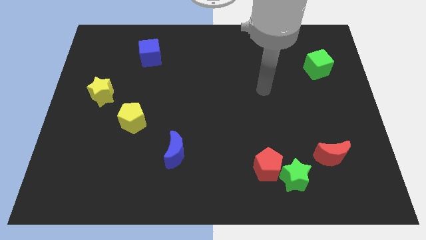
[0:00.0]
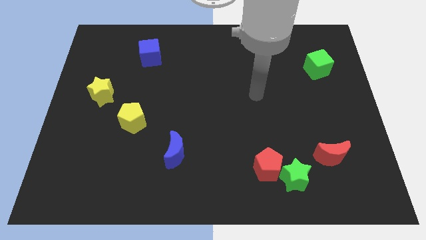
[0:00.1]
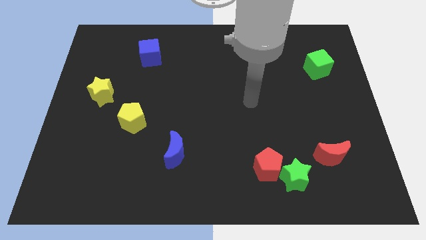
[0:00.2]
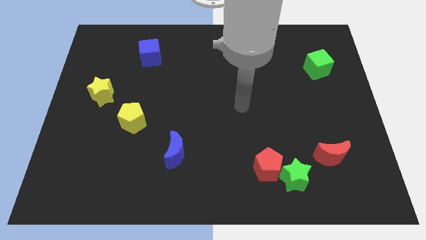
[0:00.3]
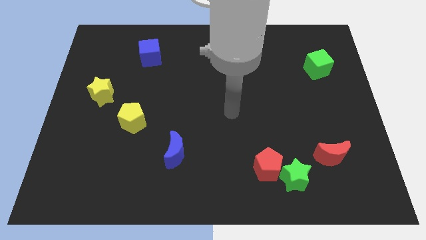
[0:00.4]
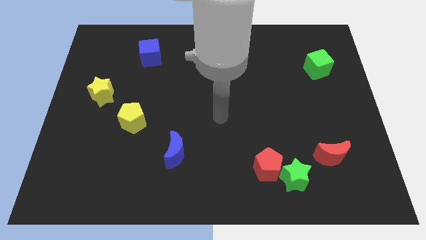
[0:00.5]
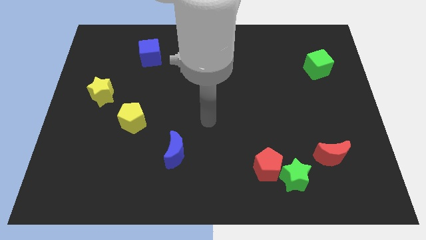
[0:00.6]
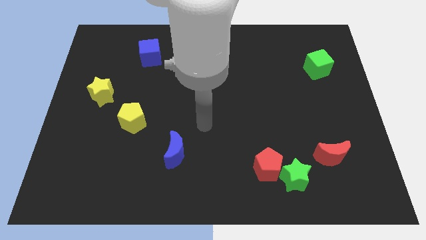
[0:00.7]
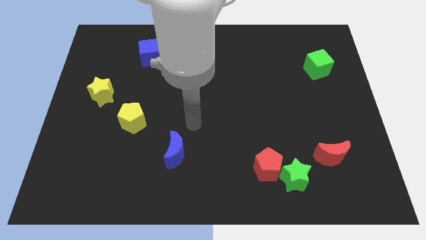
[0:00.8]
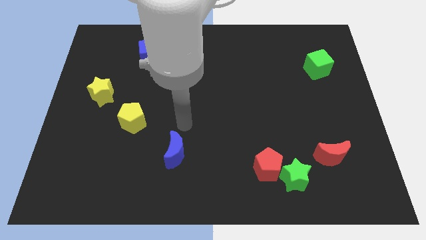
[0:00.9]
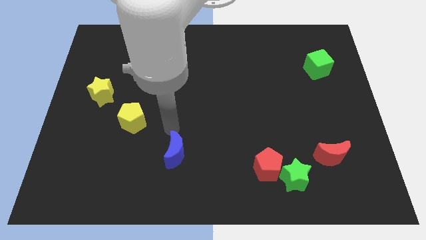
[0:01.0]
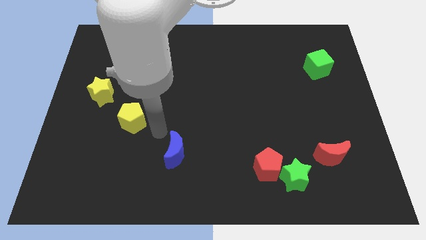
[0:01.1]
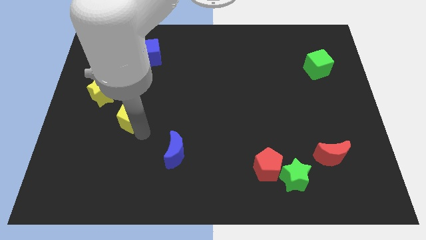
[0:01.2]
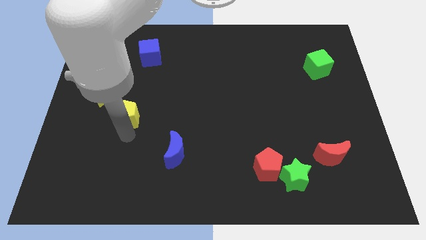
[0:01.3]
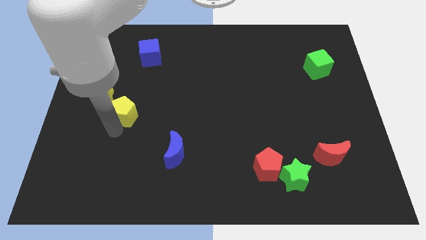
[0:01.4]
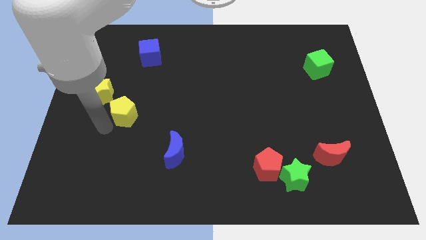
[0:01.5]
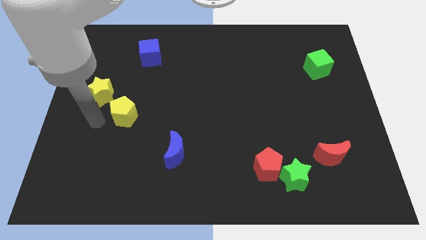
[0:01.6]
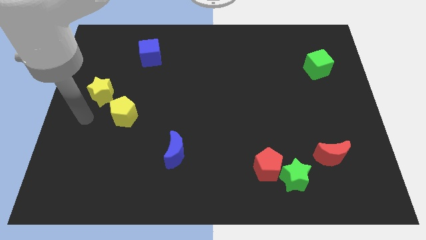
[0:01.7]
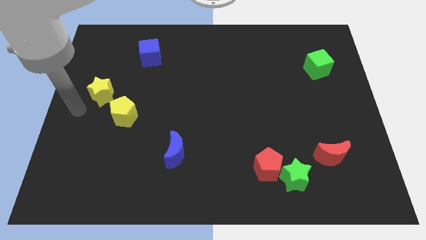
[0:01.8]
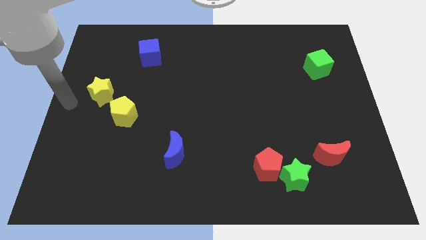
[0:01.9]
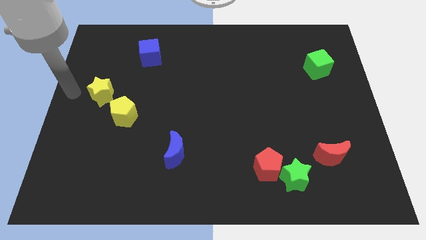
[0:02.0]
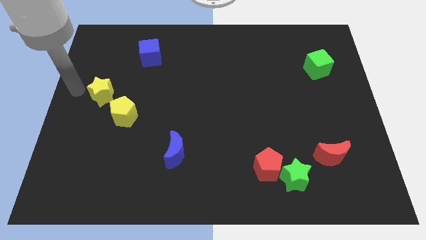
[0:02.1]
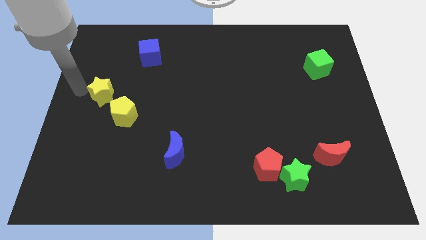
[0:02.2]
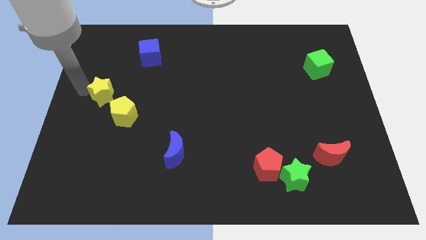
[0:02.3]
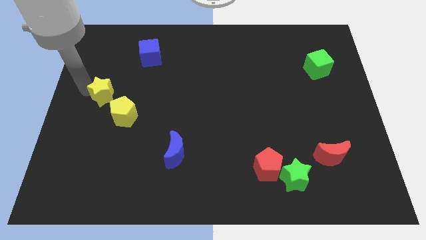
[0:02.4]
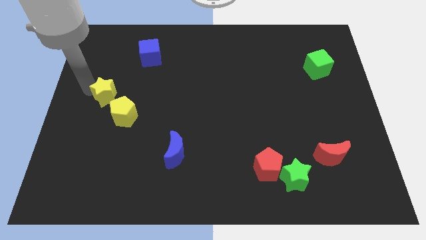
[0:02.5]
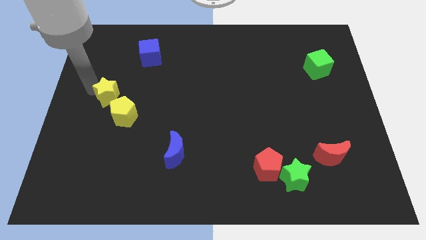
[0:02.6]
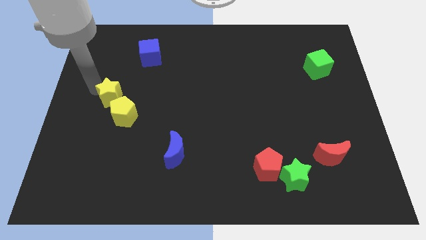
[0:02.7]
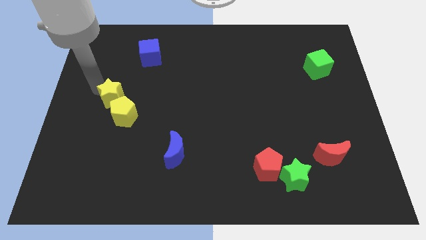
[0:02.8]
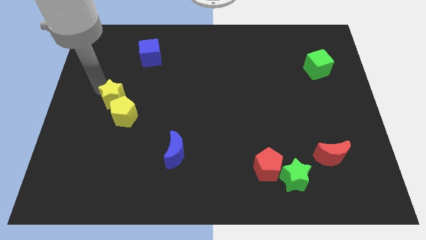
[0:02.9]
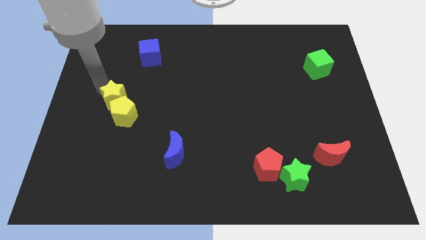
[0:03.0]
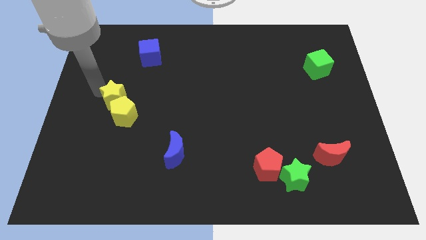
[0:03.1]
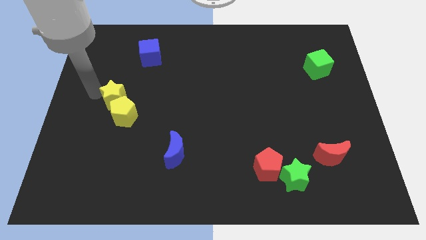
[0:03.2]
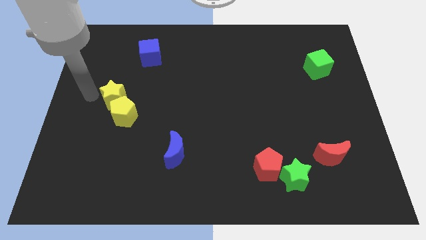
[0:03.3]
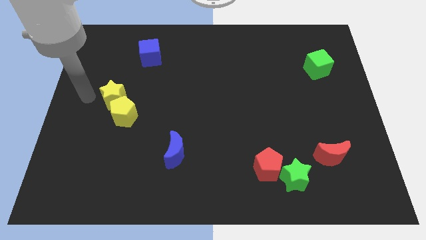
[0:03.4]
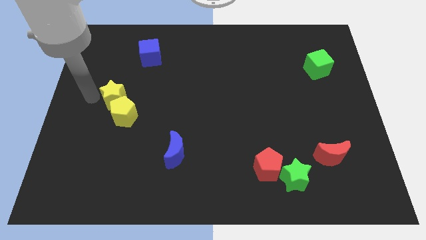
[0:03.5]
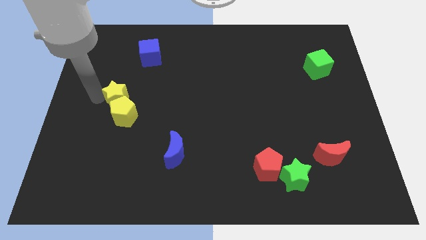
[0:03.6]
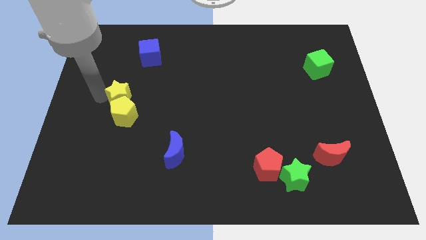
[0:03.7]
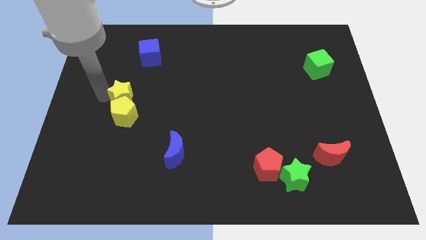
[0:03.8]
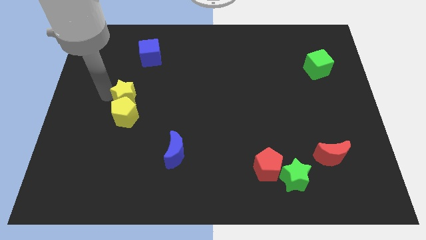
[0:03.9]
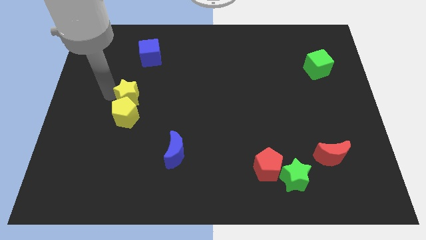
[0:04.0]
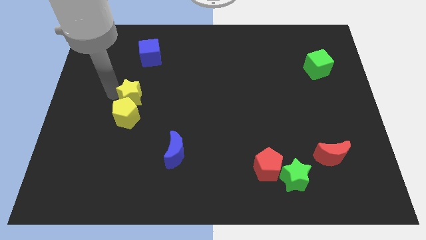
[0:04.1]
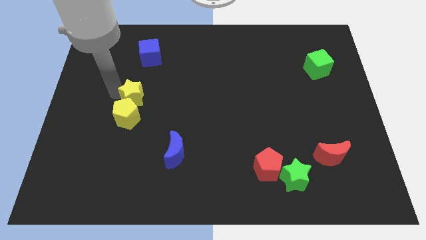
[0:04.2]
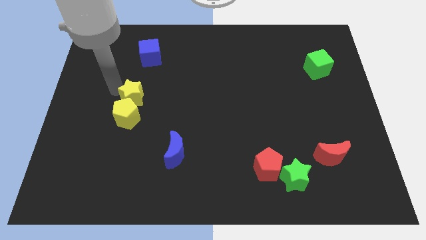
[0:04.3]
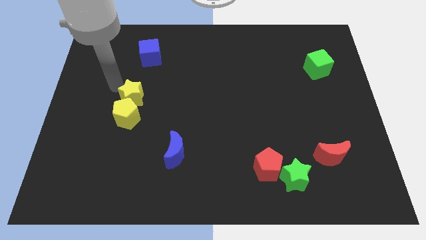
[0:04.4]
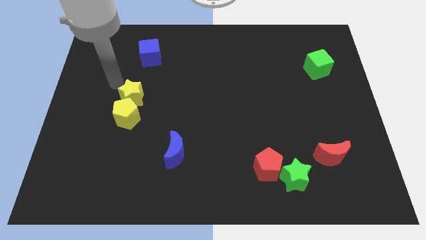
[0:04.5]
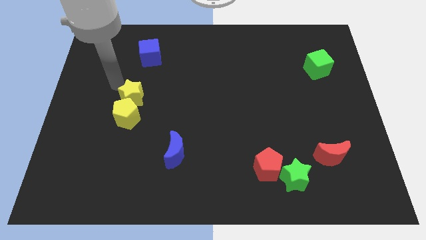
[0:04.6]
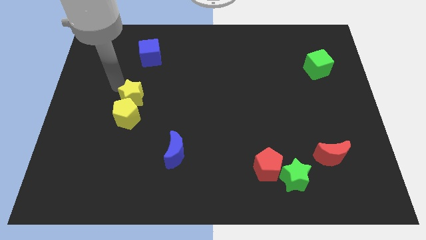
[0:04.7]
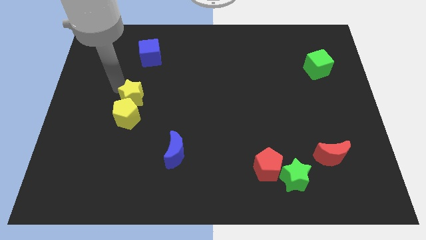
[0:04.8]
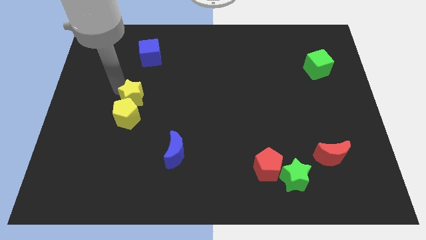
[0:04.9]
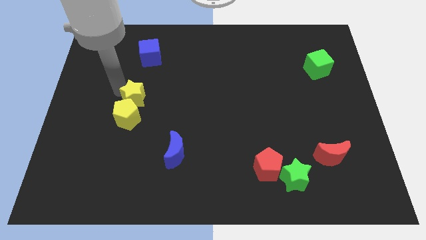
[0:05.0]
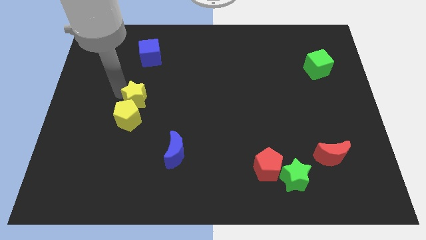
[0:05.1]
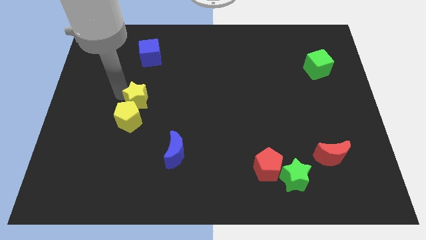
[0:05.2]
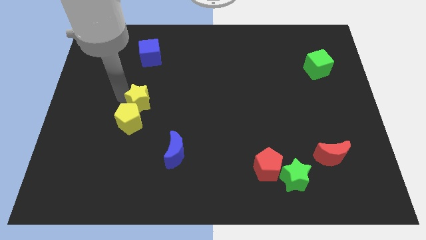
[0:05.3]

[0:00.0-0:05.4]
slide the yellow star a bit downwards and then to the right

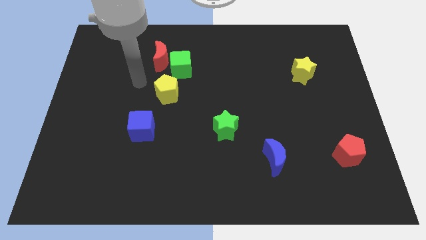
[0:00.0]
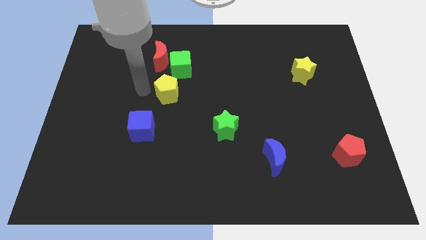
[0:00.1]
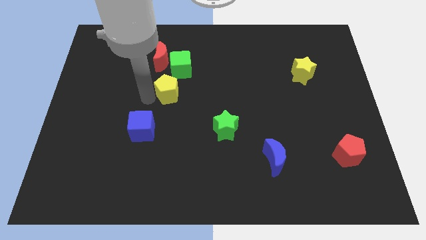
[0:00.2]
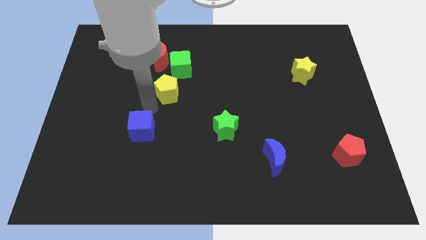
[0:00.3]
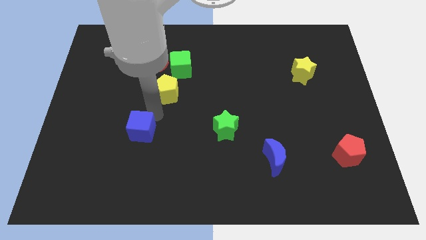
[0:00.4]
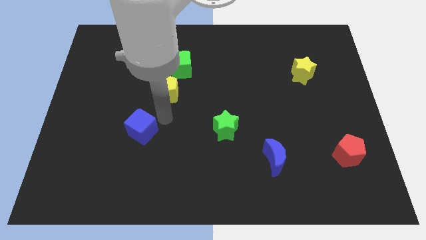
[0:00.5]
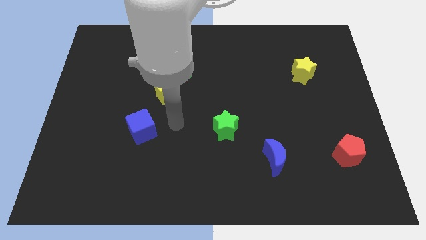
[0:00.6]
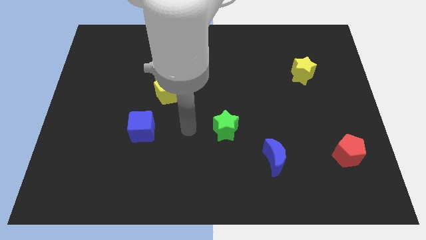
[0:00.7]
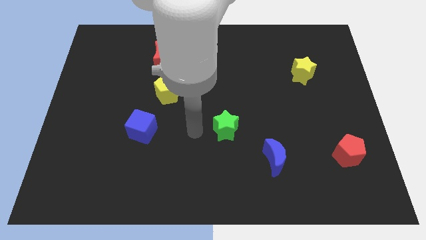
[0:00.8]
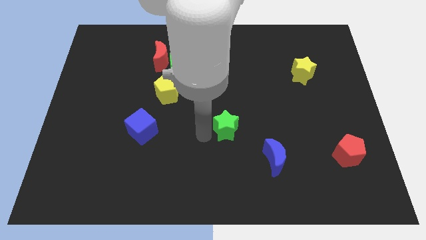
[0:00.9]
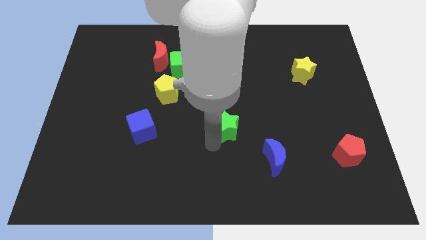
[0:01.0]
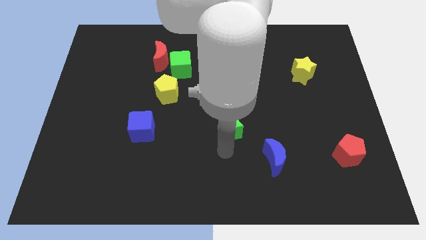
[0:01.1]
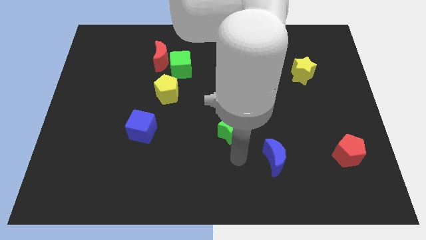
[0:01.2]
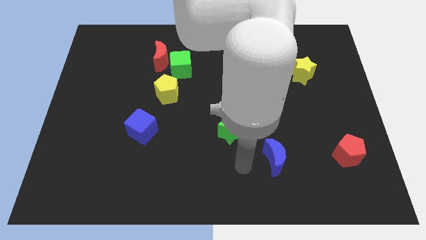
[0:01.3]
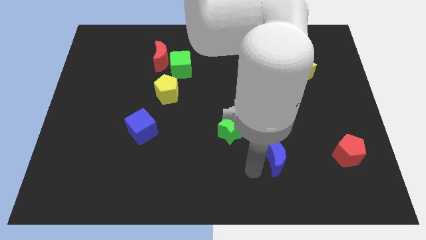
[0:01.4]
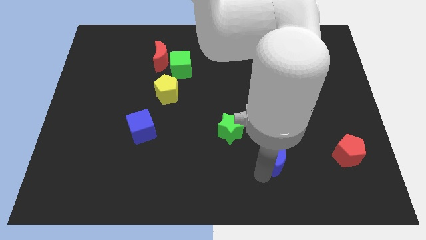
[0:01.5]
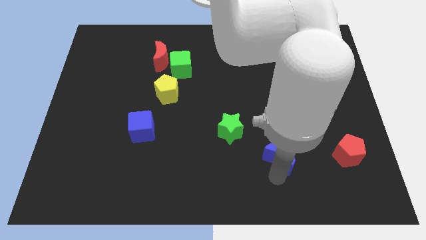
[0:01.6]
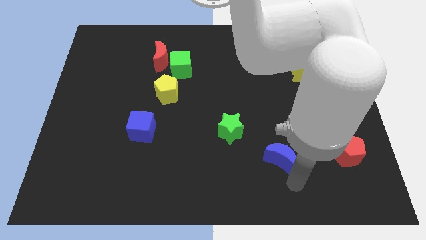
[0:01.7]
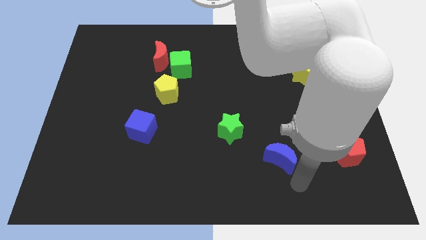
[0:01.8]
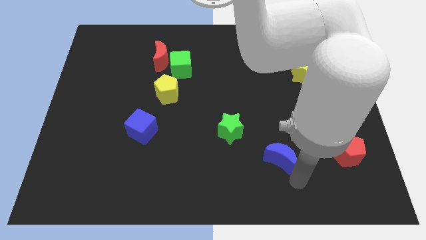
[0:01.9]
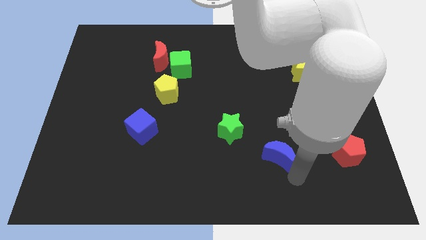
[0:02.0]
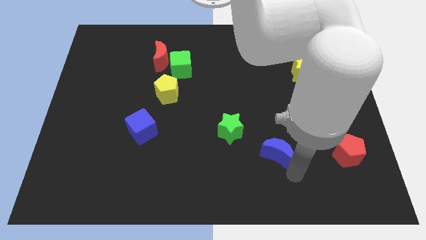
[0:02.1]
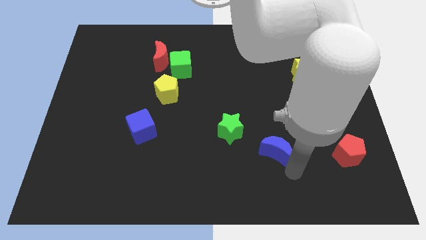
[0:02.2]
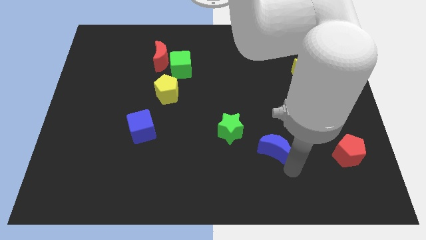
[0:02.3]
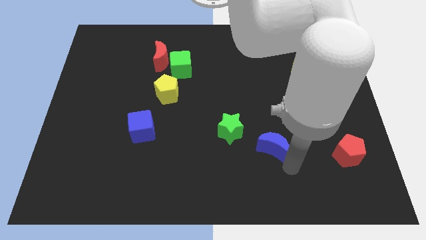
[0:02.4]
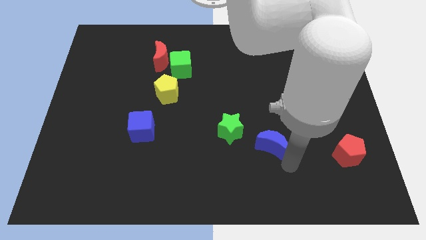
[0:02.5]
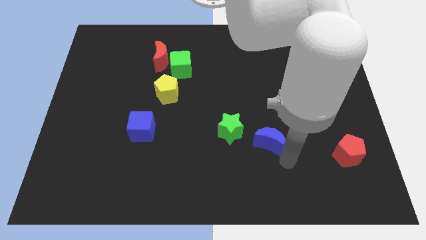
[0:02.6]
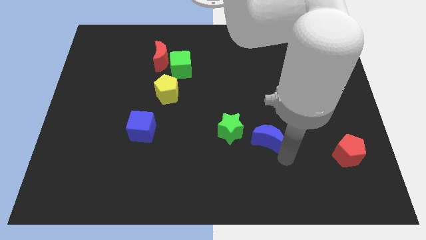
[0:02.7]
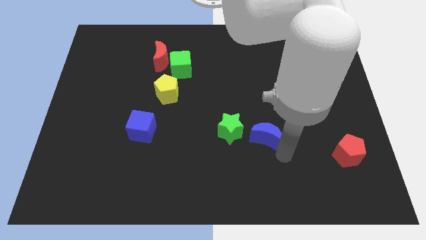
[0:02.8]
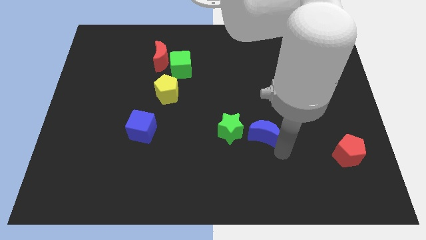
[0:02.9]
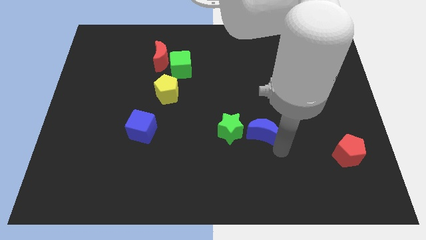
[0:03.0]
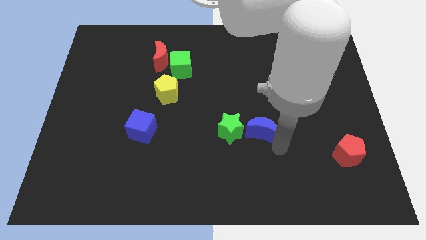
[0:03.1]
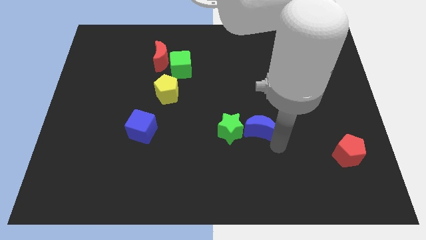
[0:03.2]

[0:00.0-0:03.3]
slide the blue moon diagonally up and to the left a bit
